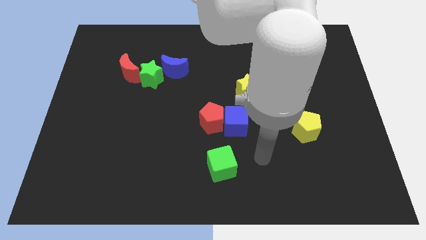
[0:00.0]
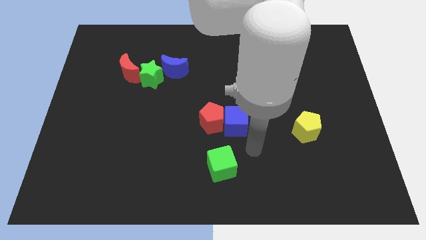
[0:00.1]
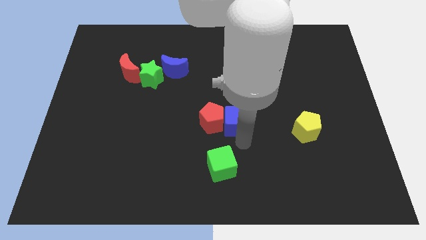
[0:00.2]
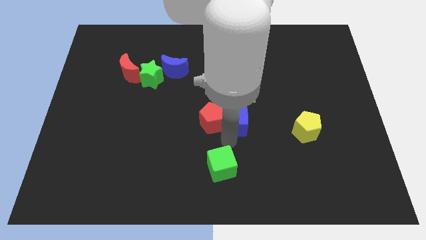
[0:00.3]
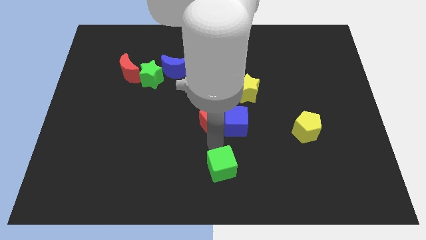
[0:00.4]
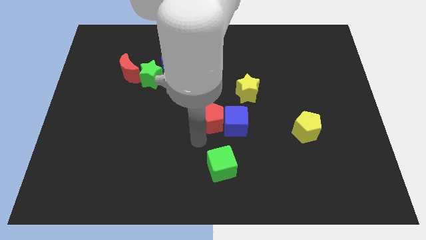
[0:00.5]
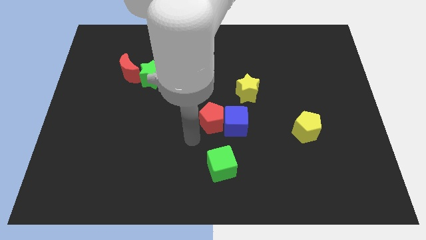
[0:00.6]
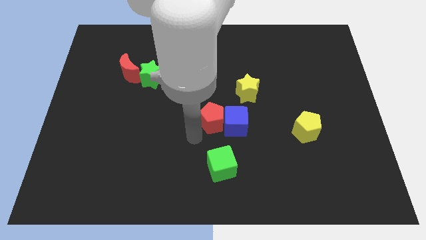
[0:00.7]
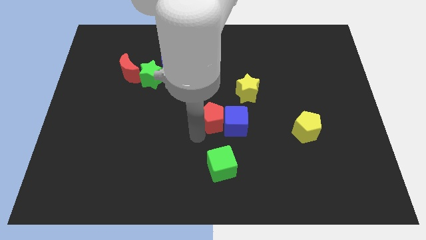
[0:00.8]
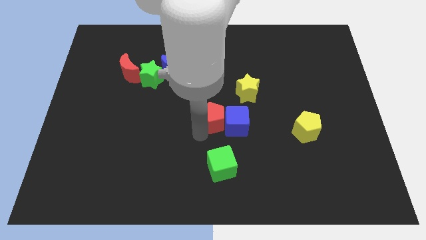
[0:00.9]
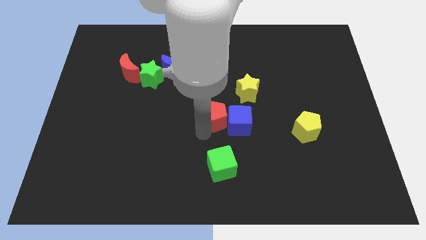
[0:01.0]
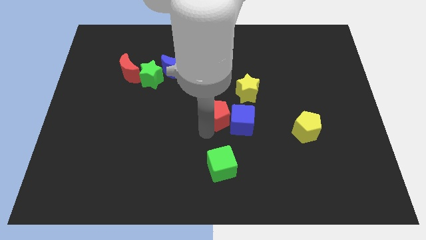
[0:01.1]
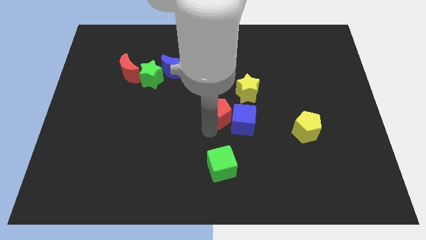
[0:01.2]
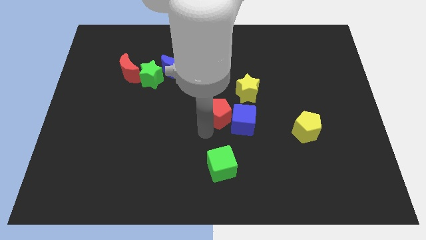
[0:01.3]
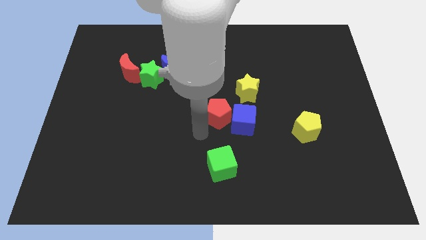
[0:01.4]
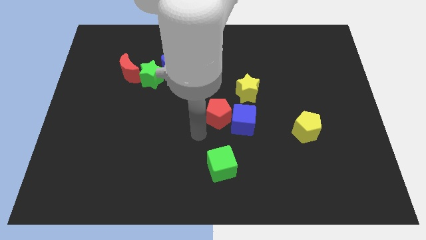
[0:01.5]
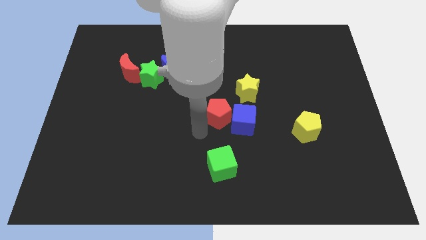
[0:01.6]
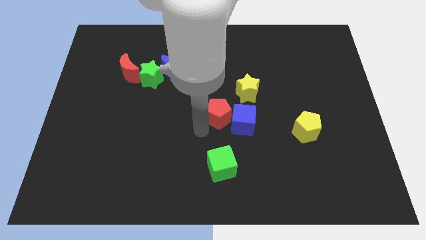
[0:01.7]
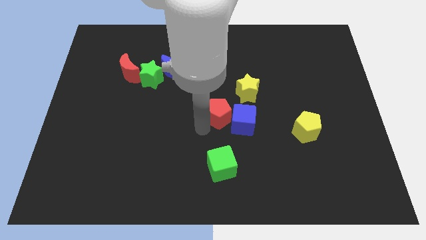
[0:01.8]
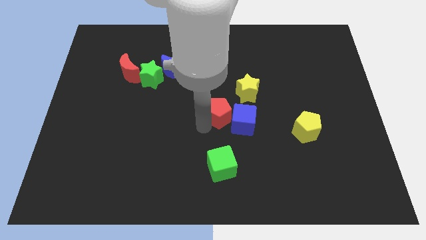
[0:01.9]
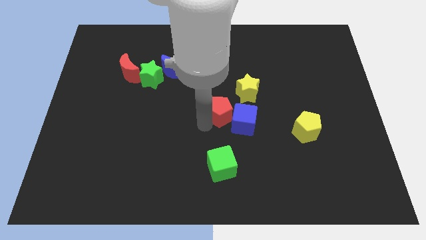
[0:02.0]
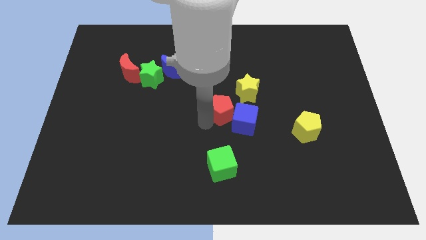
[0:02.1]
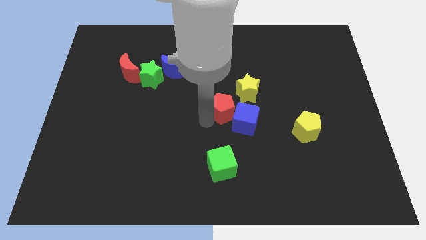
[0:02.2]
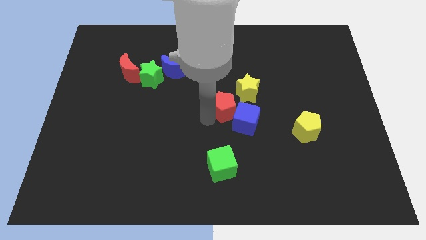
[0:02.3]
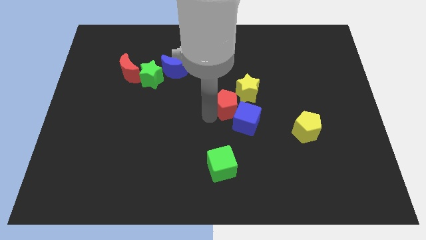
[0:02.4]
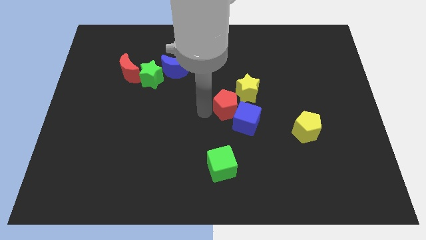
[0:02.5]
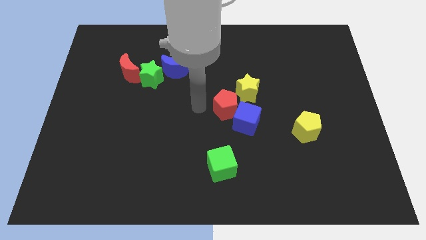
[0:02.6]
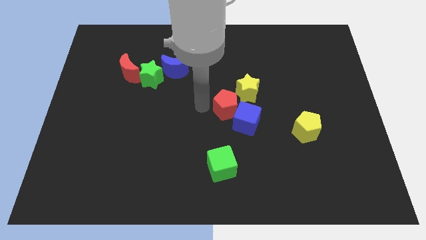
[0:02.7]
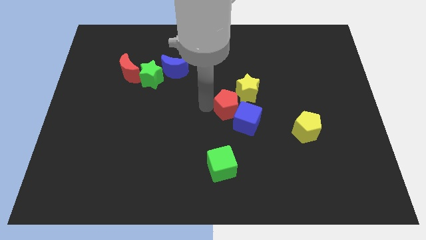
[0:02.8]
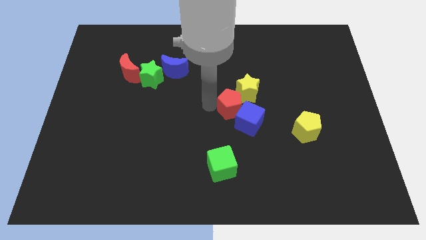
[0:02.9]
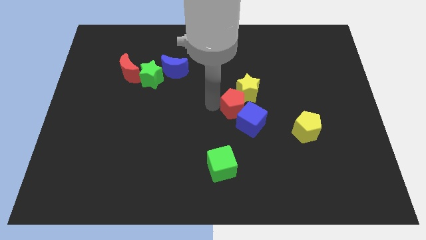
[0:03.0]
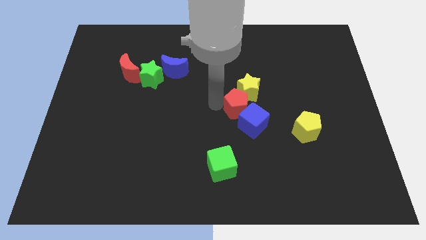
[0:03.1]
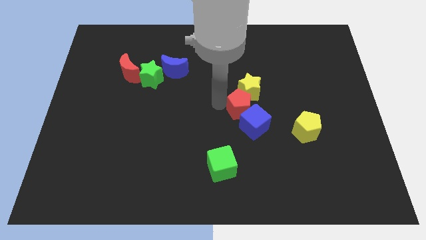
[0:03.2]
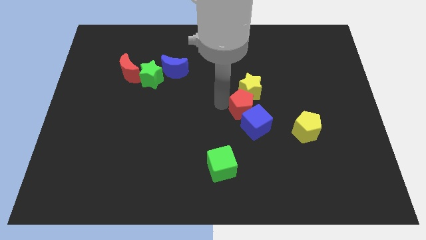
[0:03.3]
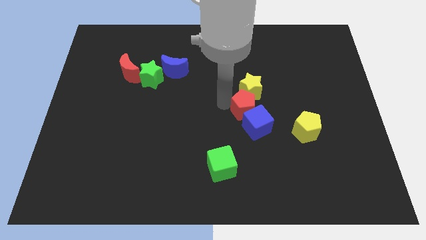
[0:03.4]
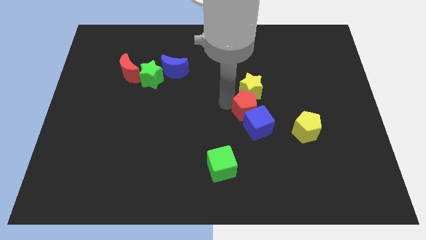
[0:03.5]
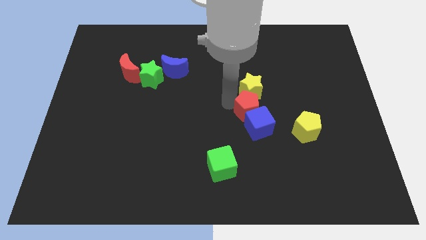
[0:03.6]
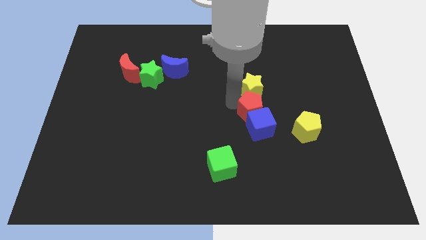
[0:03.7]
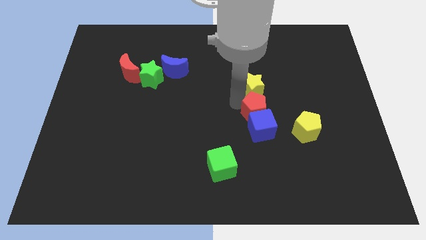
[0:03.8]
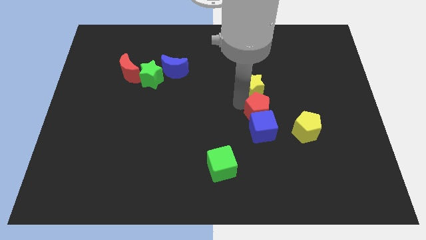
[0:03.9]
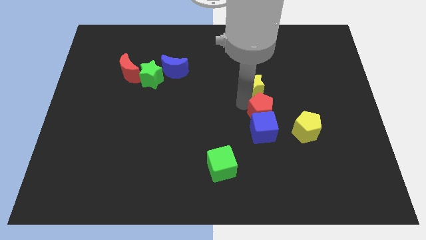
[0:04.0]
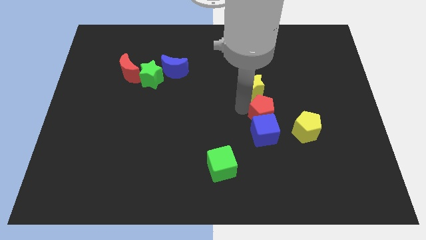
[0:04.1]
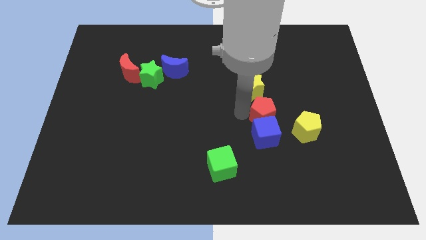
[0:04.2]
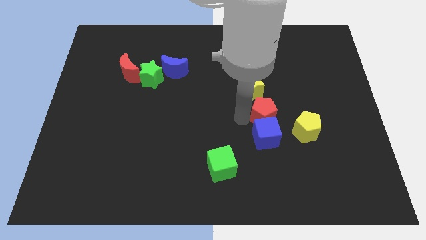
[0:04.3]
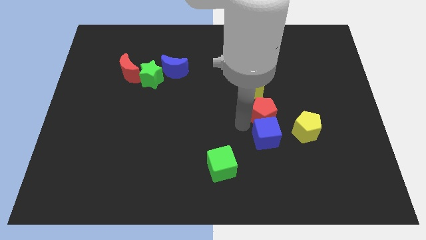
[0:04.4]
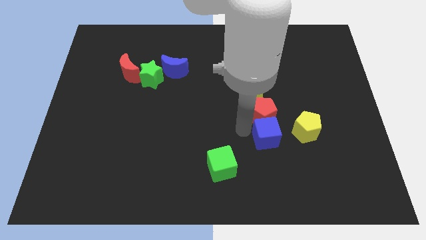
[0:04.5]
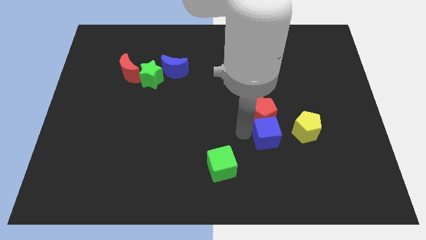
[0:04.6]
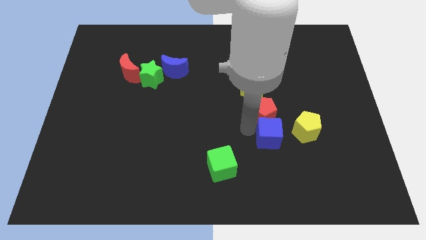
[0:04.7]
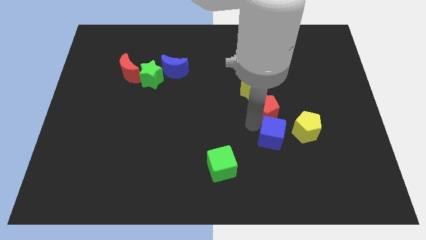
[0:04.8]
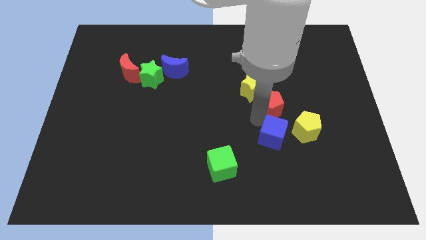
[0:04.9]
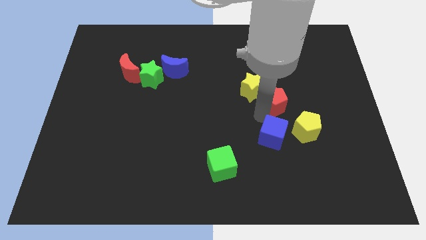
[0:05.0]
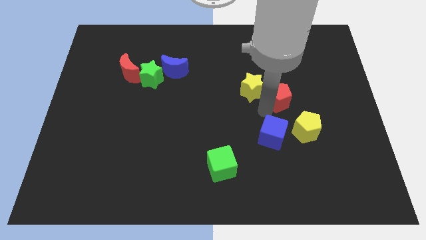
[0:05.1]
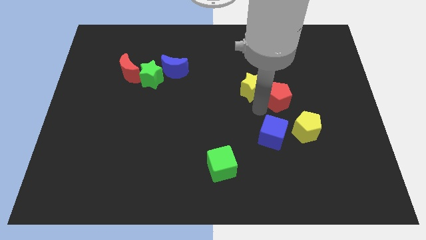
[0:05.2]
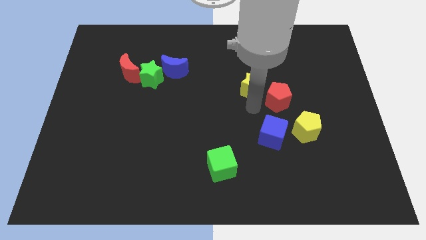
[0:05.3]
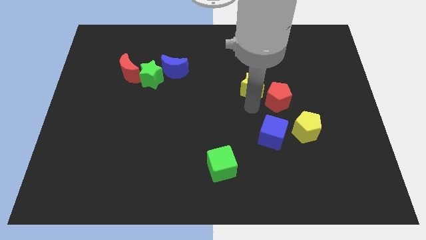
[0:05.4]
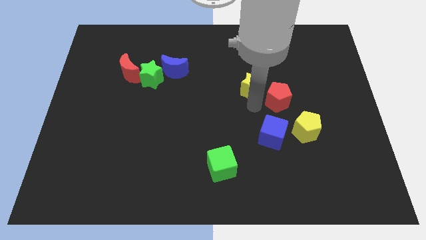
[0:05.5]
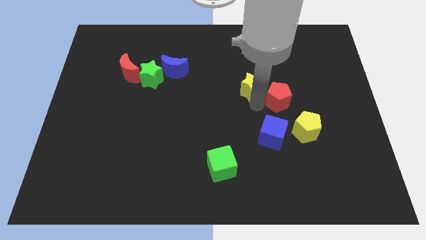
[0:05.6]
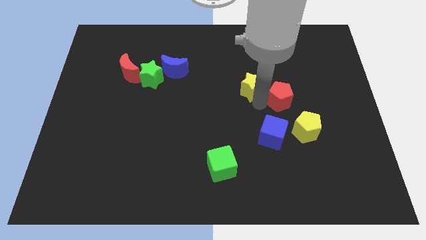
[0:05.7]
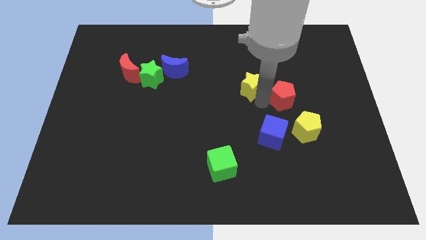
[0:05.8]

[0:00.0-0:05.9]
put the red pentagon to the top side of the yellow pentagon

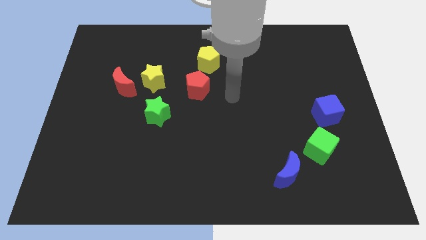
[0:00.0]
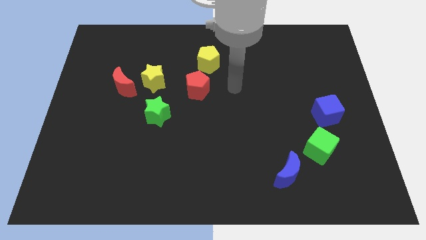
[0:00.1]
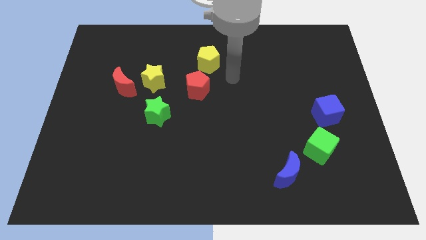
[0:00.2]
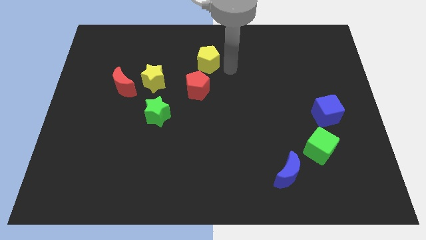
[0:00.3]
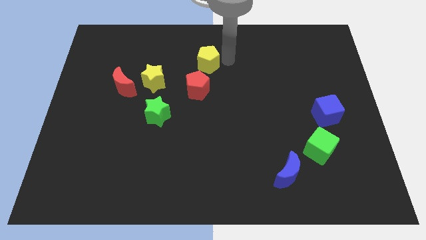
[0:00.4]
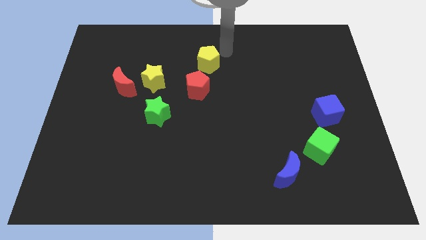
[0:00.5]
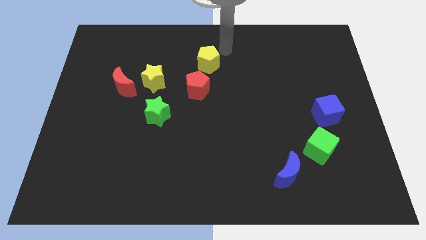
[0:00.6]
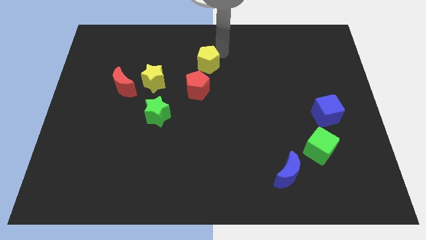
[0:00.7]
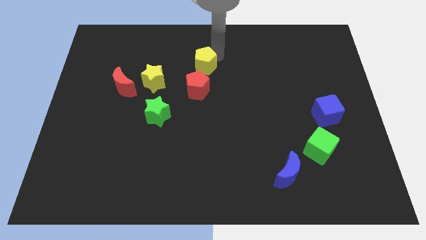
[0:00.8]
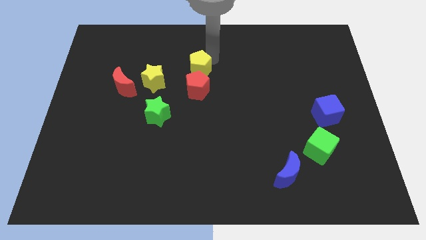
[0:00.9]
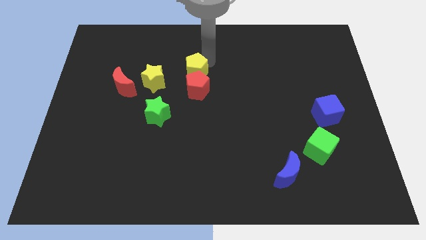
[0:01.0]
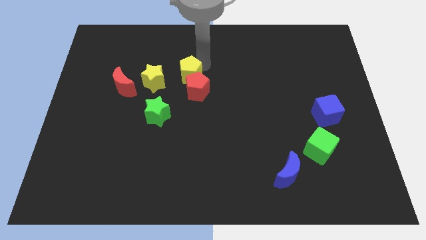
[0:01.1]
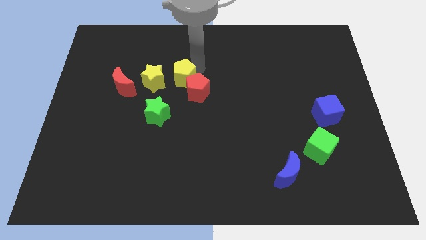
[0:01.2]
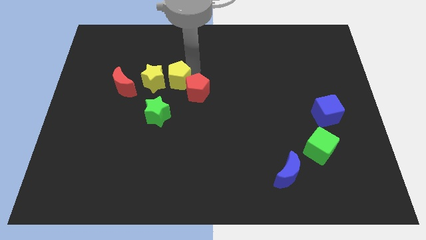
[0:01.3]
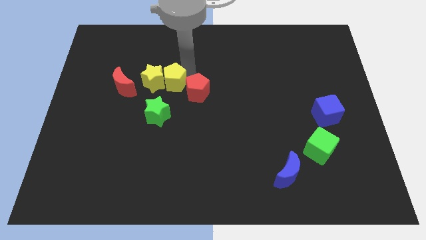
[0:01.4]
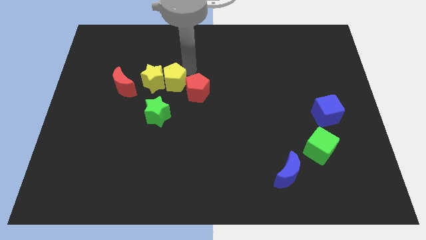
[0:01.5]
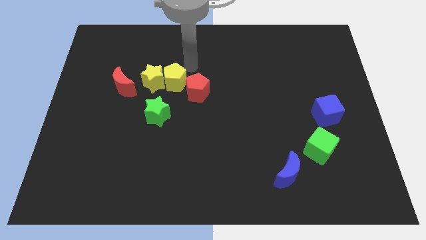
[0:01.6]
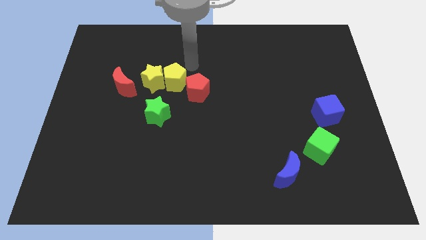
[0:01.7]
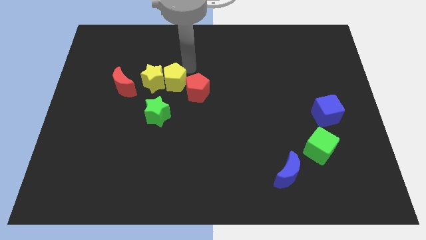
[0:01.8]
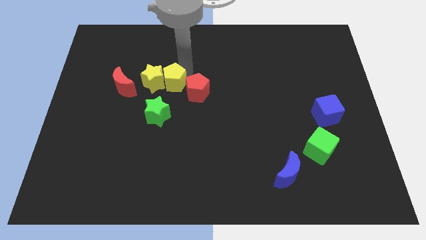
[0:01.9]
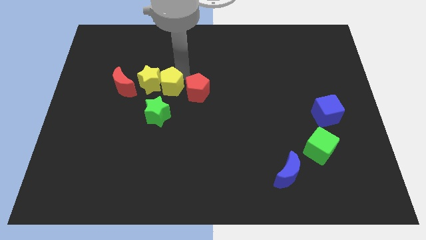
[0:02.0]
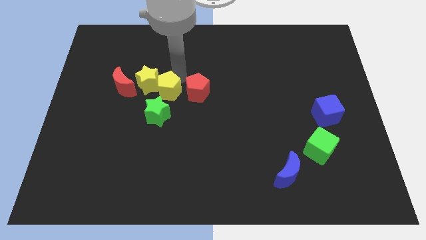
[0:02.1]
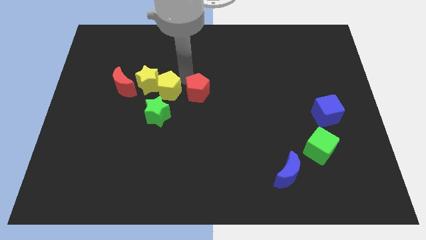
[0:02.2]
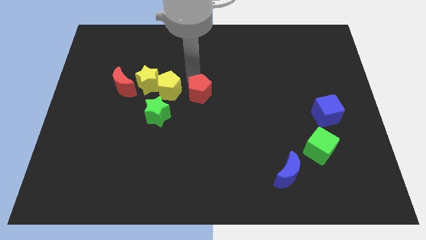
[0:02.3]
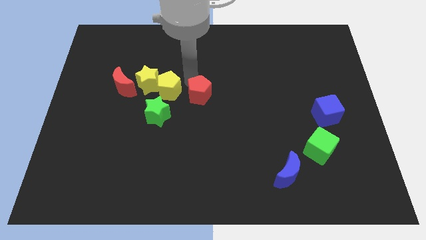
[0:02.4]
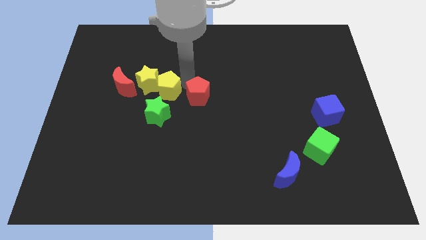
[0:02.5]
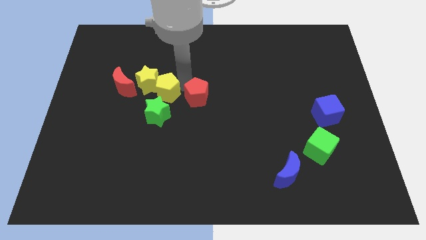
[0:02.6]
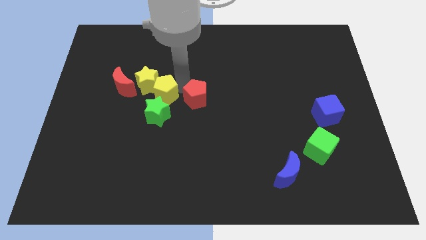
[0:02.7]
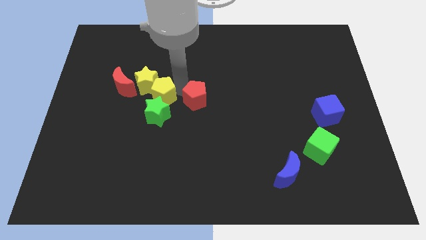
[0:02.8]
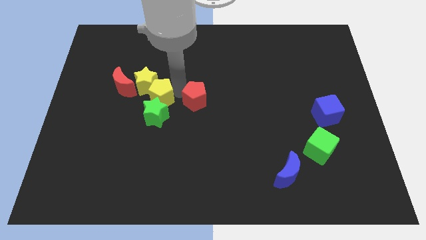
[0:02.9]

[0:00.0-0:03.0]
put the yellow pentagon to the bottom of the yellow star
